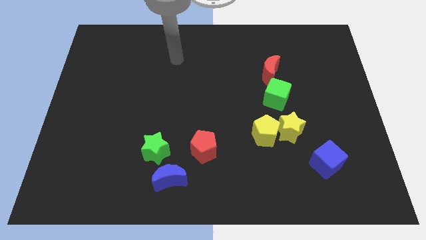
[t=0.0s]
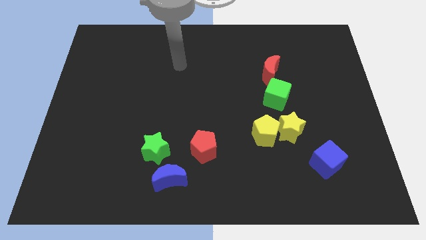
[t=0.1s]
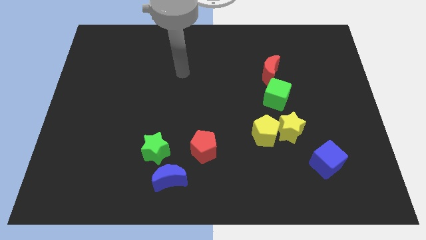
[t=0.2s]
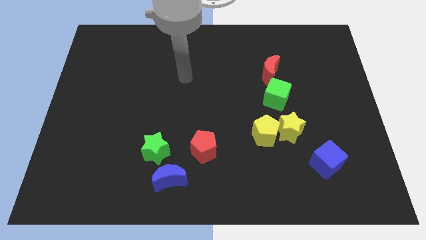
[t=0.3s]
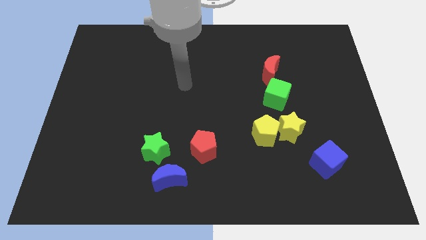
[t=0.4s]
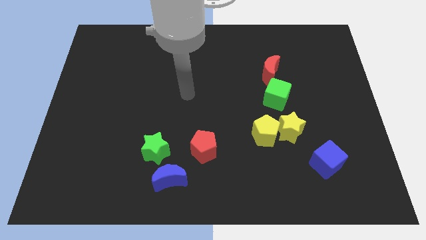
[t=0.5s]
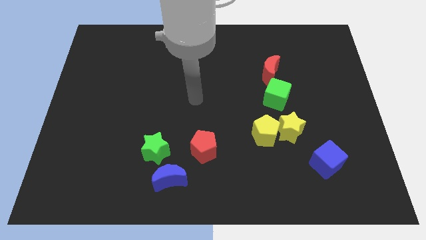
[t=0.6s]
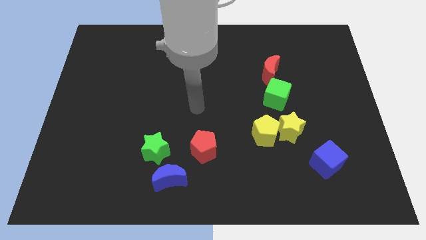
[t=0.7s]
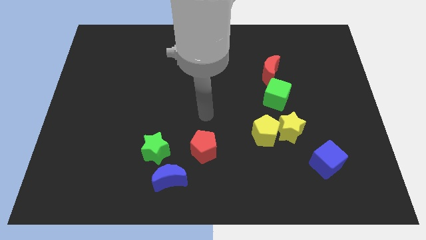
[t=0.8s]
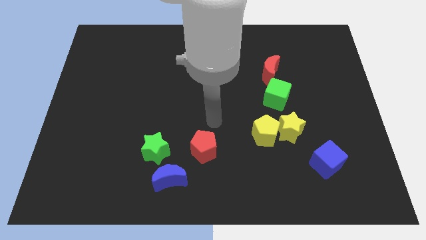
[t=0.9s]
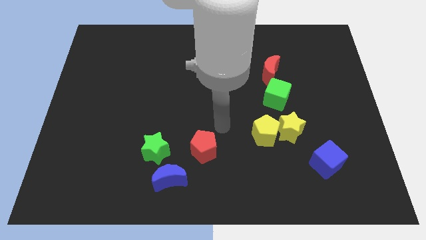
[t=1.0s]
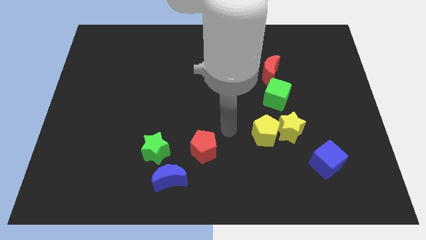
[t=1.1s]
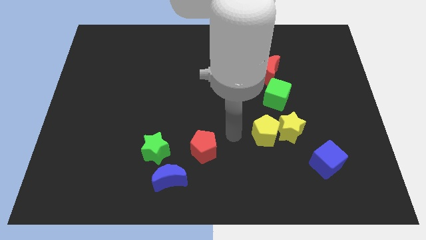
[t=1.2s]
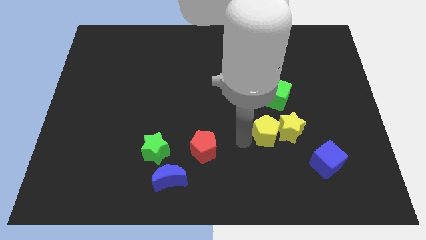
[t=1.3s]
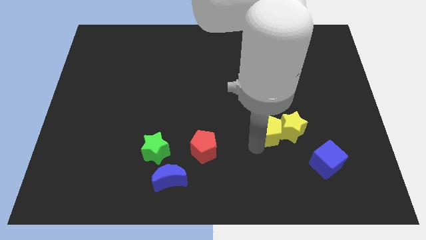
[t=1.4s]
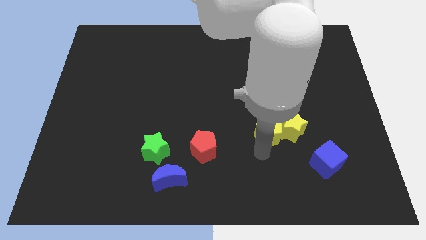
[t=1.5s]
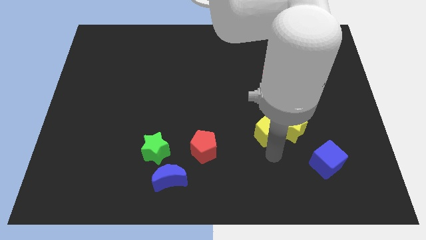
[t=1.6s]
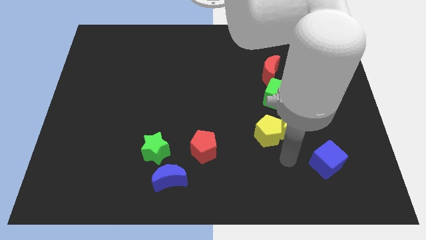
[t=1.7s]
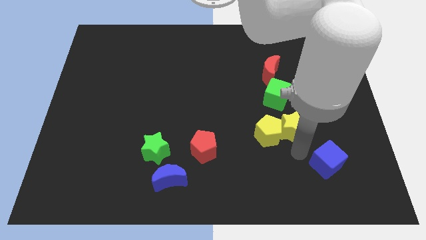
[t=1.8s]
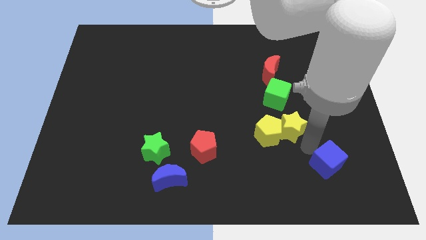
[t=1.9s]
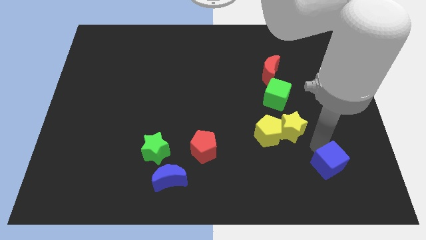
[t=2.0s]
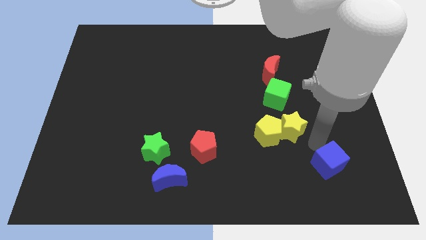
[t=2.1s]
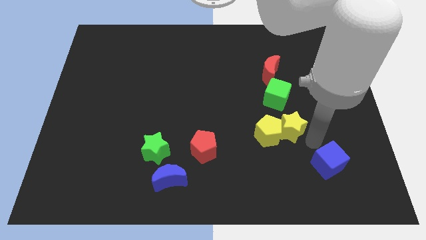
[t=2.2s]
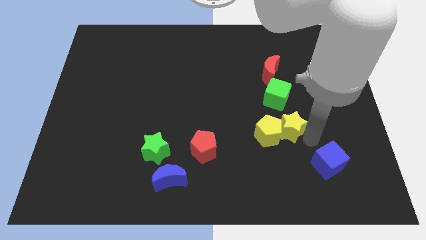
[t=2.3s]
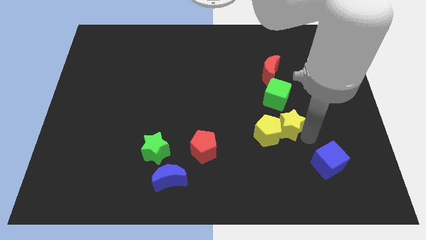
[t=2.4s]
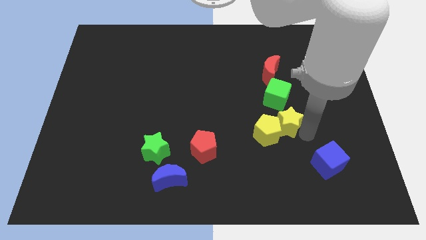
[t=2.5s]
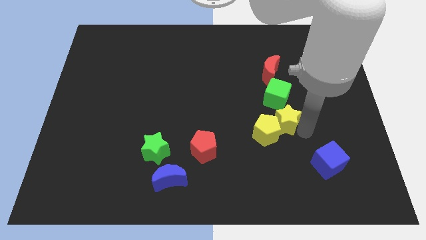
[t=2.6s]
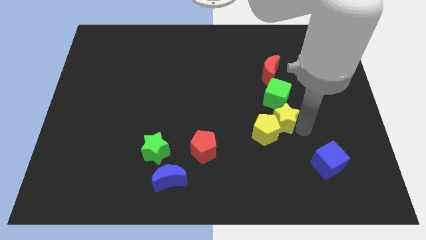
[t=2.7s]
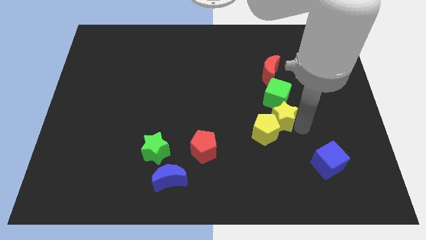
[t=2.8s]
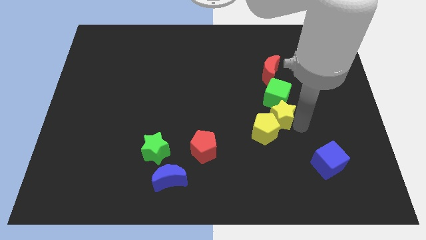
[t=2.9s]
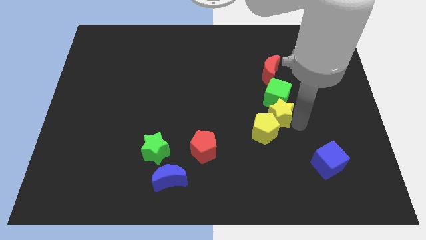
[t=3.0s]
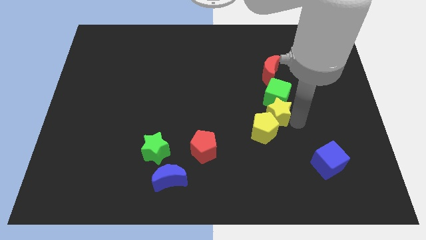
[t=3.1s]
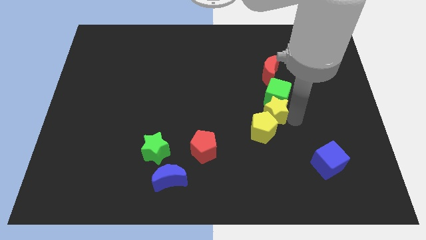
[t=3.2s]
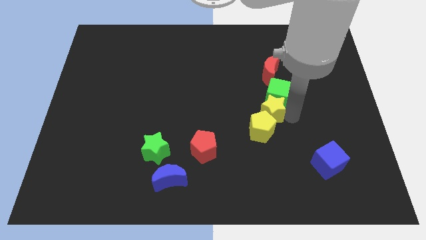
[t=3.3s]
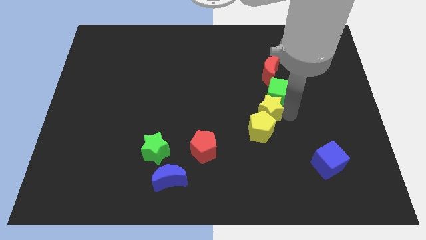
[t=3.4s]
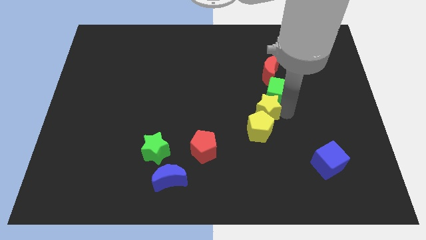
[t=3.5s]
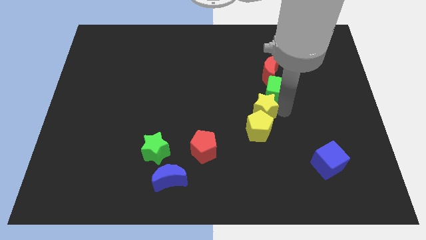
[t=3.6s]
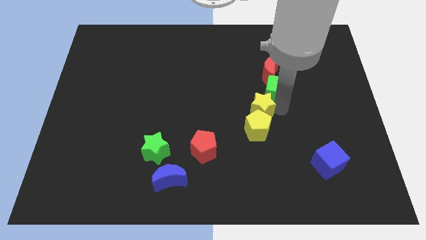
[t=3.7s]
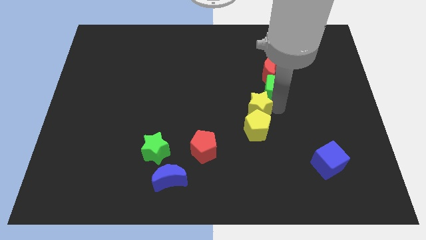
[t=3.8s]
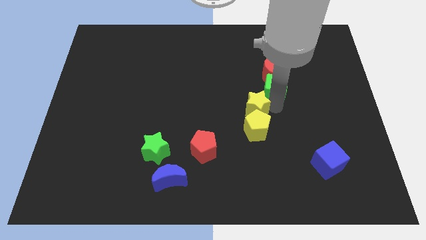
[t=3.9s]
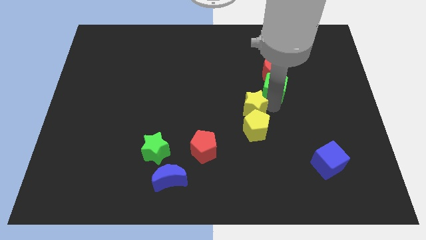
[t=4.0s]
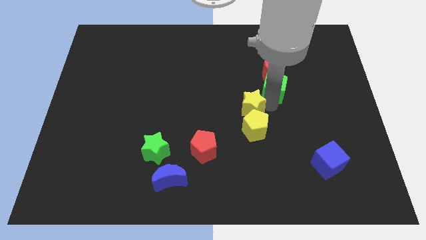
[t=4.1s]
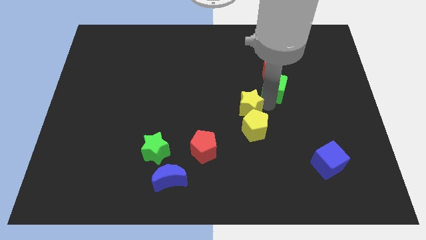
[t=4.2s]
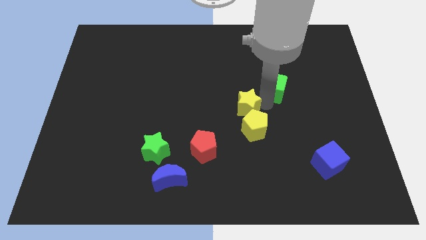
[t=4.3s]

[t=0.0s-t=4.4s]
slightly push the yellow star left

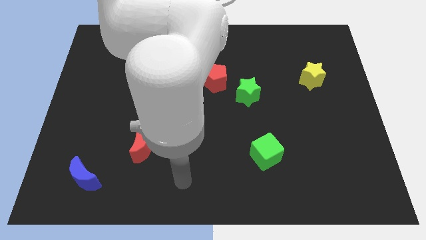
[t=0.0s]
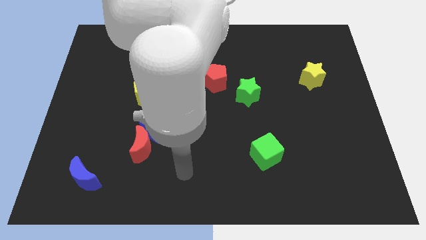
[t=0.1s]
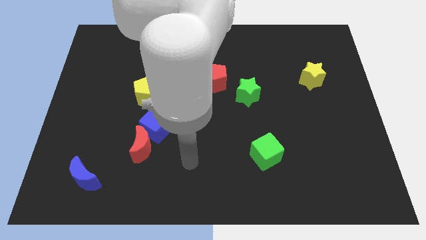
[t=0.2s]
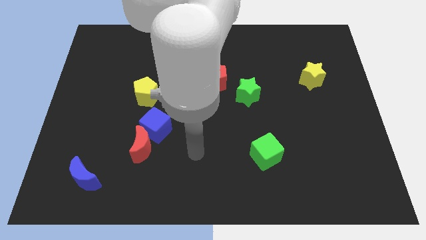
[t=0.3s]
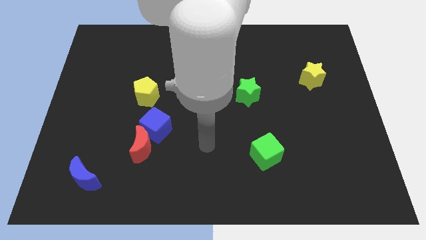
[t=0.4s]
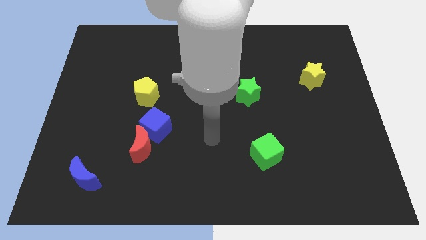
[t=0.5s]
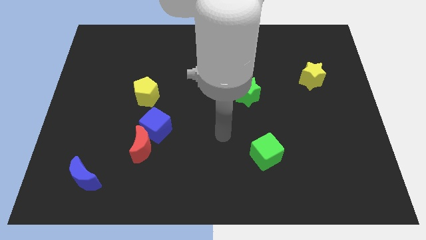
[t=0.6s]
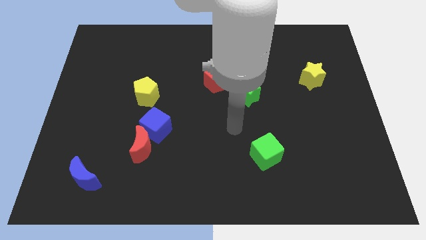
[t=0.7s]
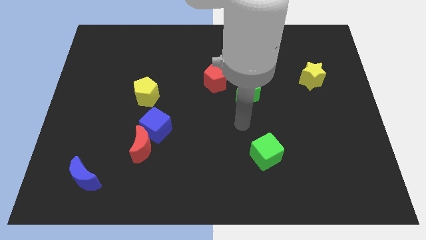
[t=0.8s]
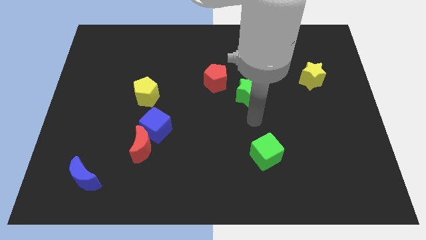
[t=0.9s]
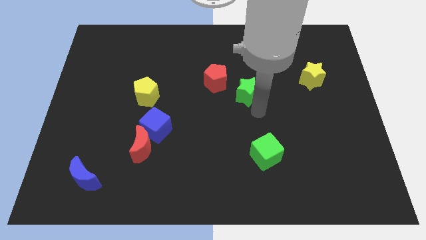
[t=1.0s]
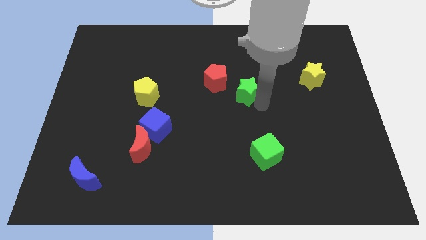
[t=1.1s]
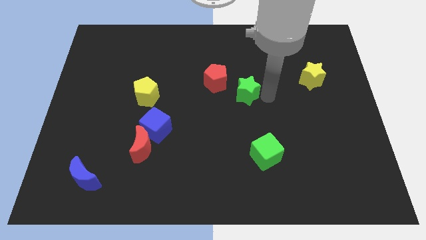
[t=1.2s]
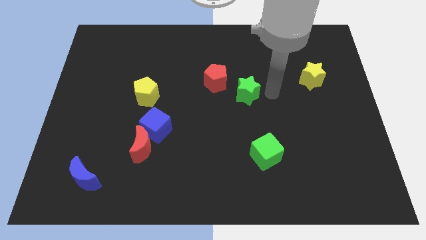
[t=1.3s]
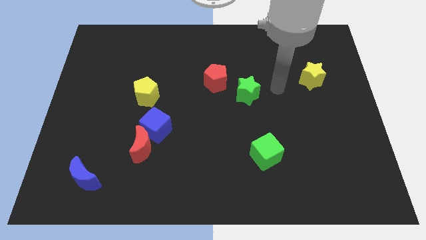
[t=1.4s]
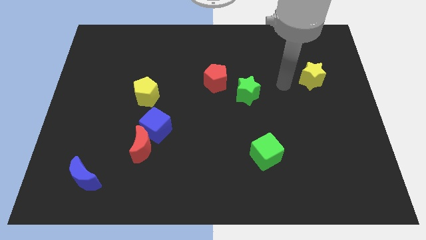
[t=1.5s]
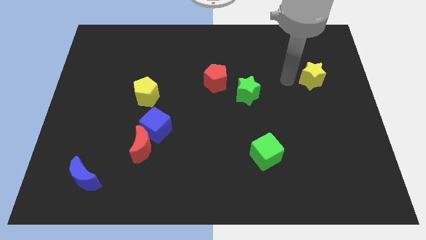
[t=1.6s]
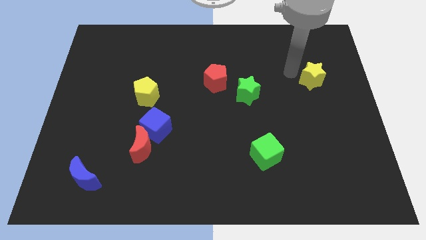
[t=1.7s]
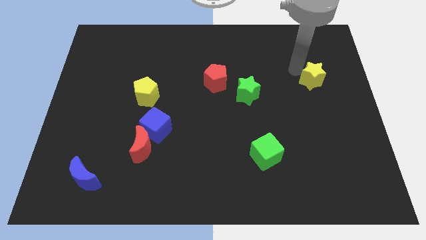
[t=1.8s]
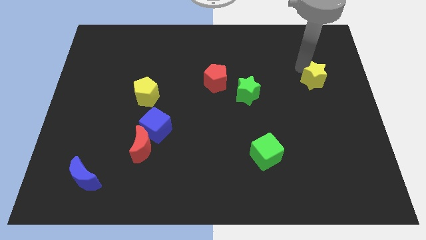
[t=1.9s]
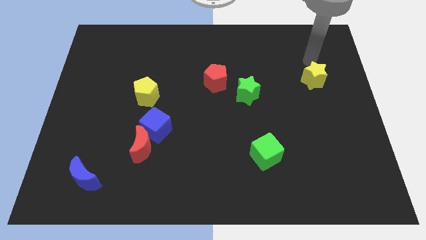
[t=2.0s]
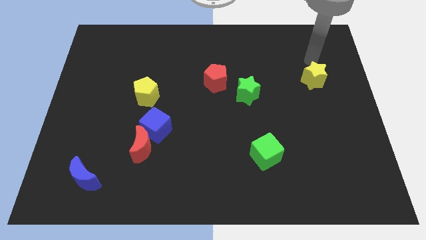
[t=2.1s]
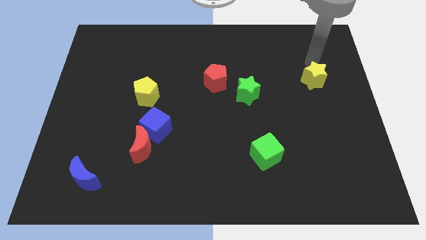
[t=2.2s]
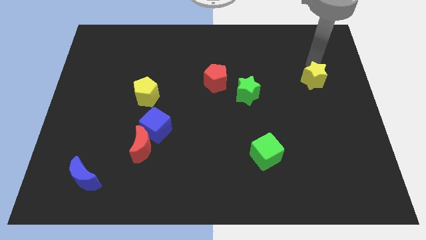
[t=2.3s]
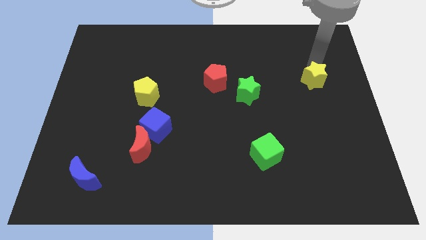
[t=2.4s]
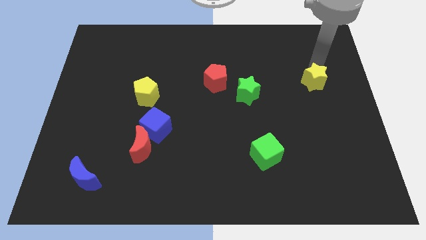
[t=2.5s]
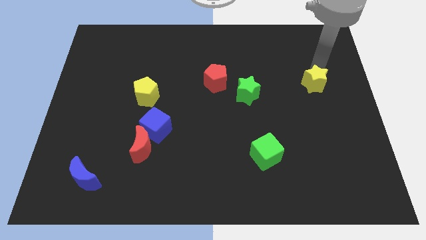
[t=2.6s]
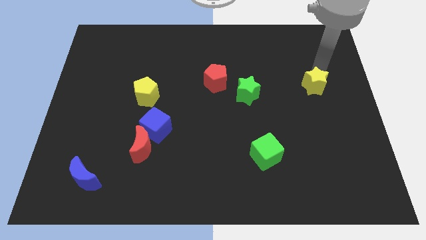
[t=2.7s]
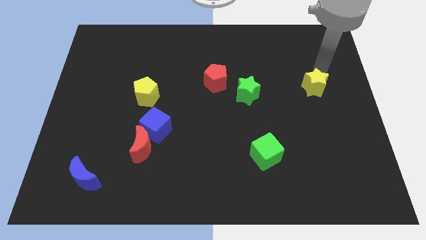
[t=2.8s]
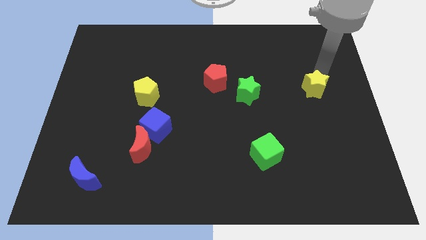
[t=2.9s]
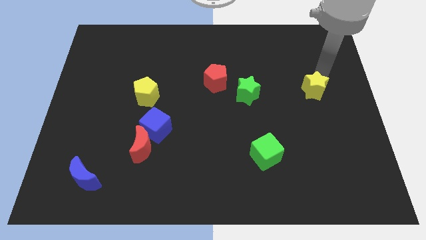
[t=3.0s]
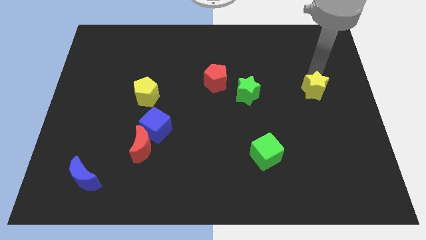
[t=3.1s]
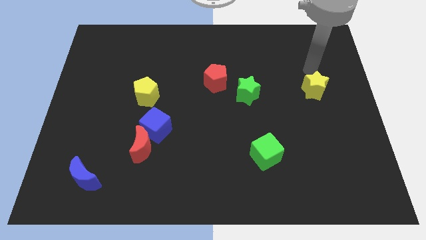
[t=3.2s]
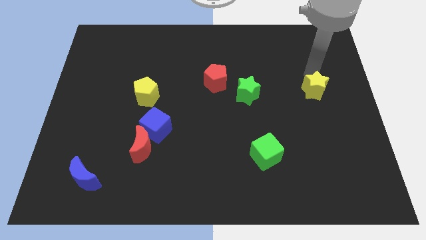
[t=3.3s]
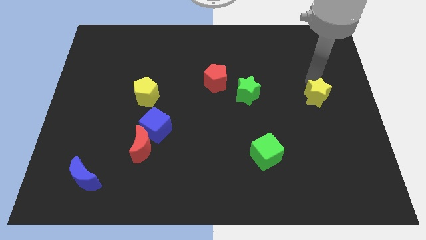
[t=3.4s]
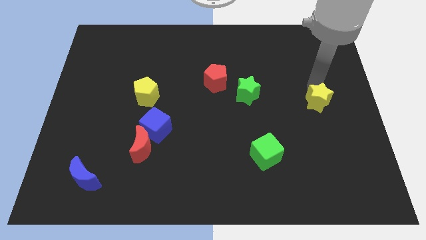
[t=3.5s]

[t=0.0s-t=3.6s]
push the yellow star a little bit downwards
